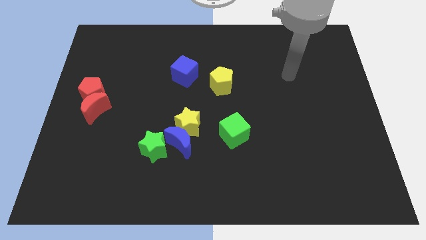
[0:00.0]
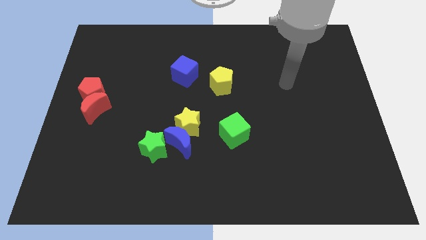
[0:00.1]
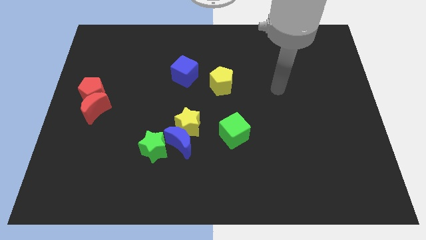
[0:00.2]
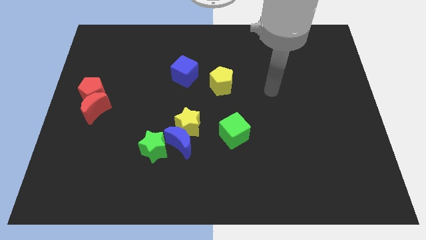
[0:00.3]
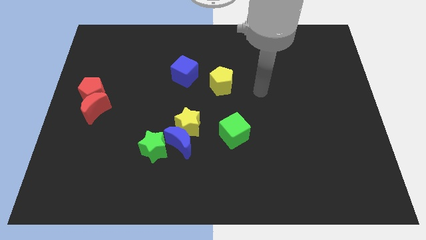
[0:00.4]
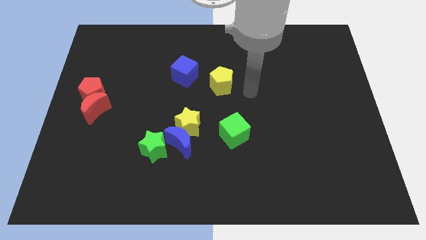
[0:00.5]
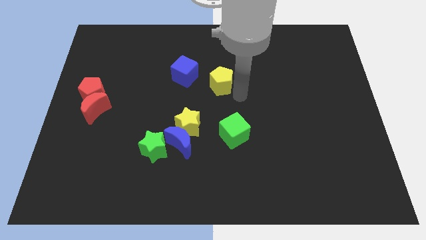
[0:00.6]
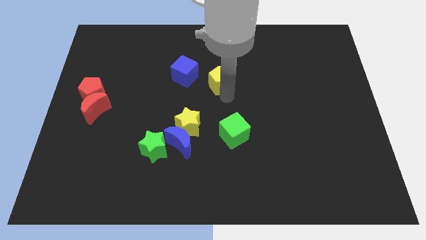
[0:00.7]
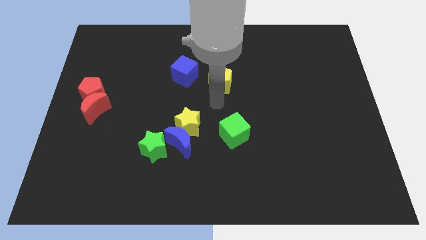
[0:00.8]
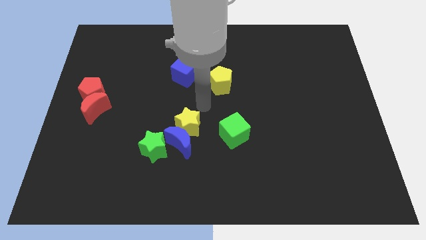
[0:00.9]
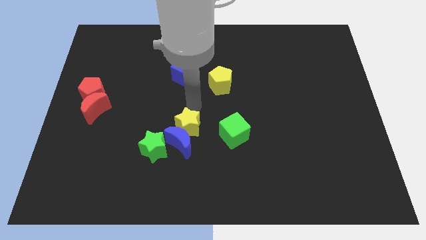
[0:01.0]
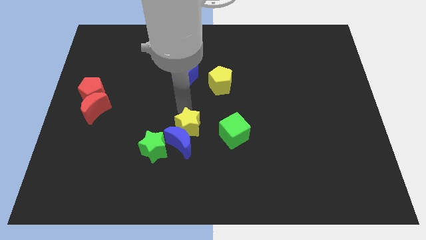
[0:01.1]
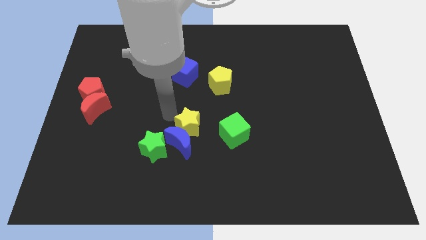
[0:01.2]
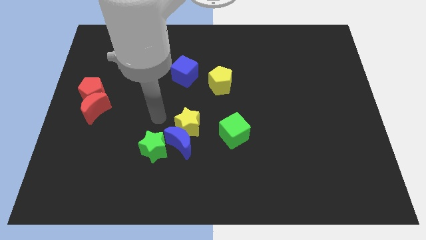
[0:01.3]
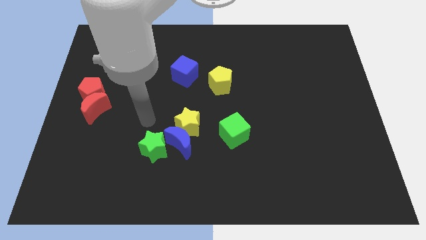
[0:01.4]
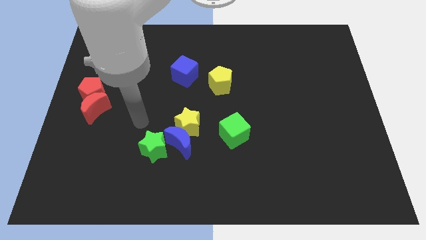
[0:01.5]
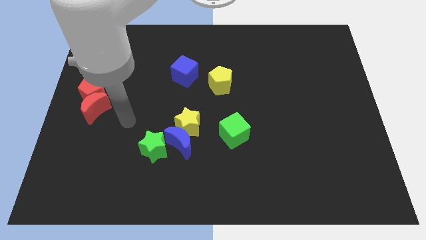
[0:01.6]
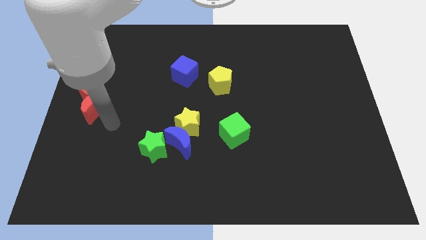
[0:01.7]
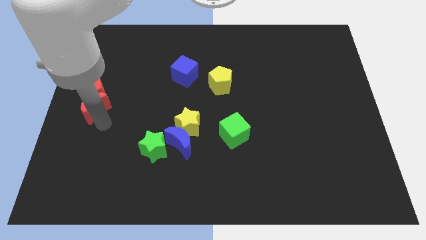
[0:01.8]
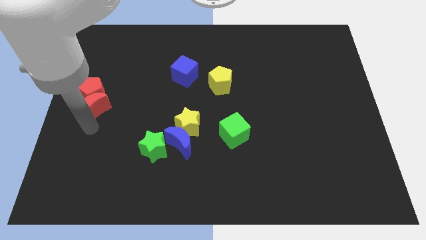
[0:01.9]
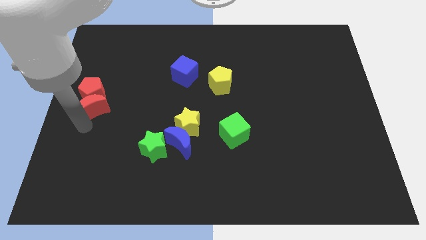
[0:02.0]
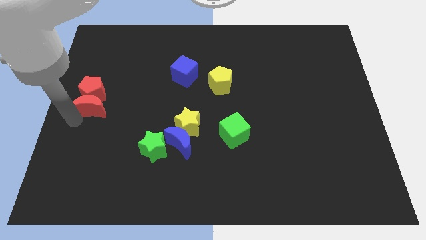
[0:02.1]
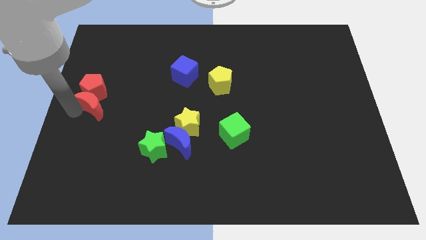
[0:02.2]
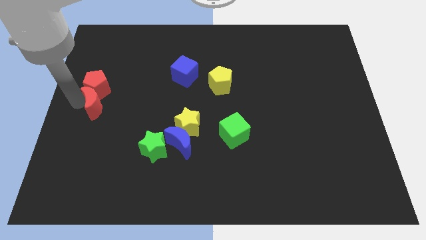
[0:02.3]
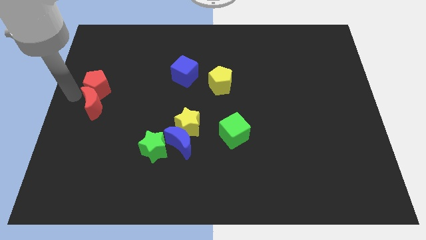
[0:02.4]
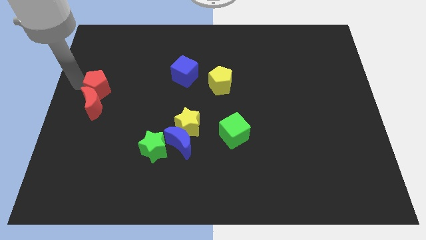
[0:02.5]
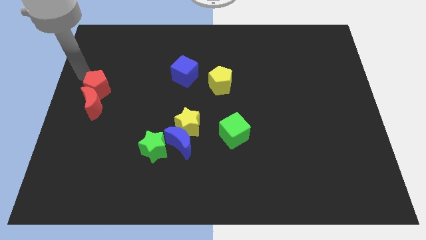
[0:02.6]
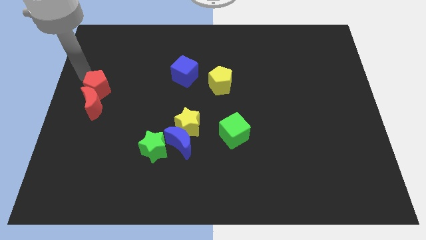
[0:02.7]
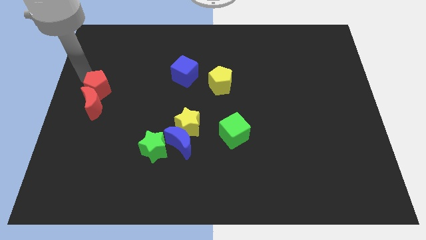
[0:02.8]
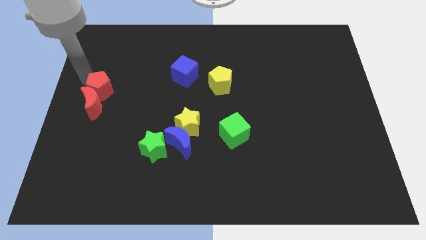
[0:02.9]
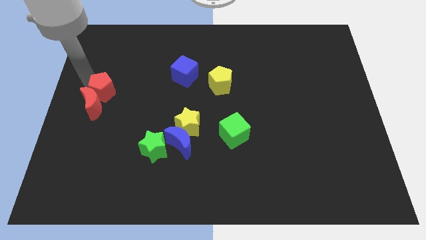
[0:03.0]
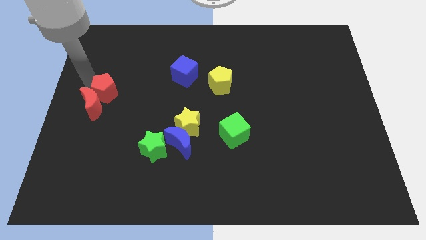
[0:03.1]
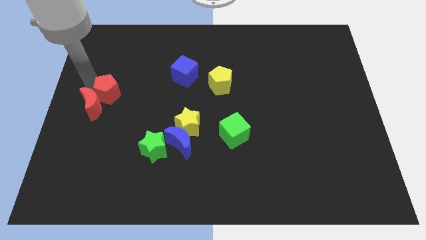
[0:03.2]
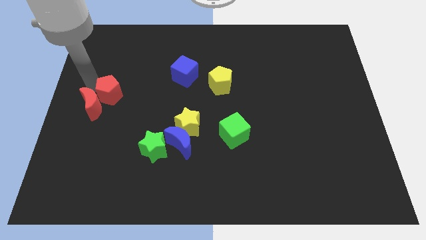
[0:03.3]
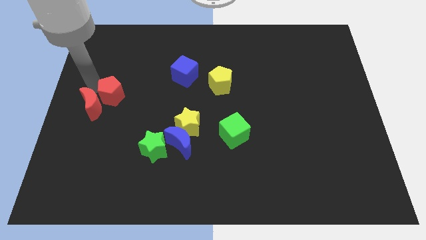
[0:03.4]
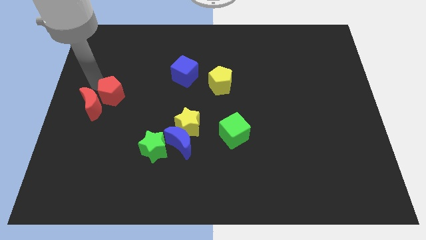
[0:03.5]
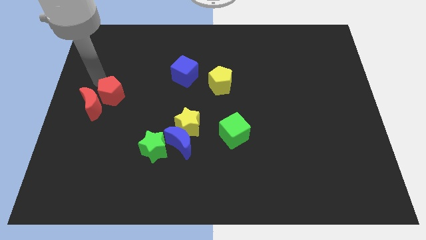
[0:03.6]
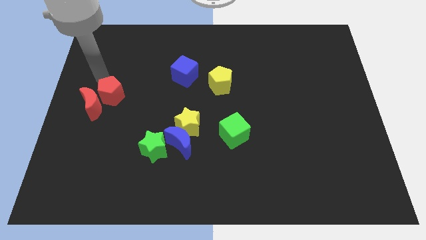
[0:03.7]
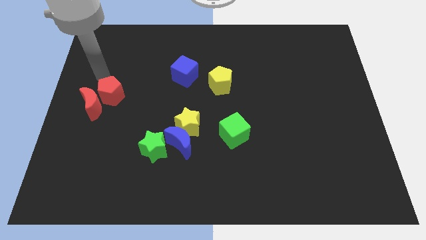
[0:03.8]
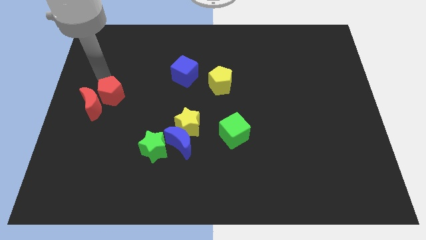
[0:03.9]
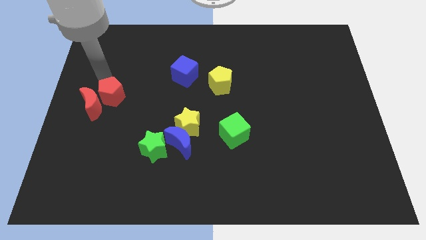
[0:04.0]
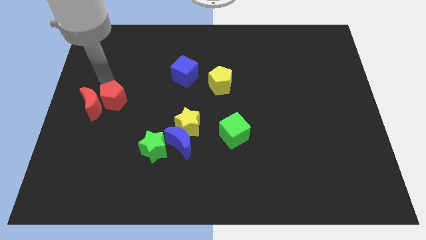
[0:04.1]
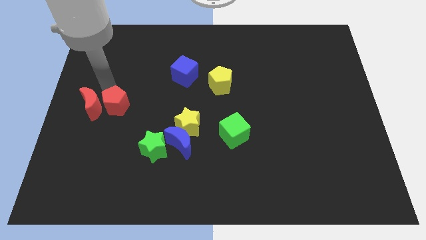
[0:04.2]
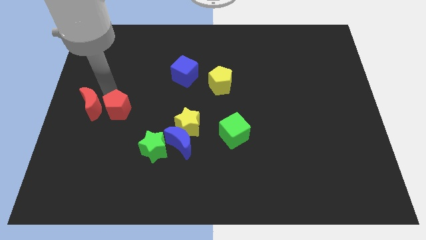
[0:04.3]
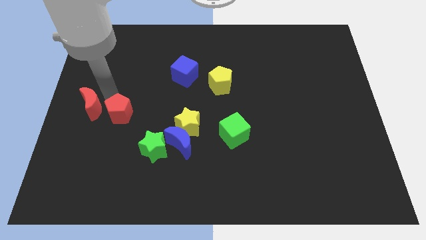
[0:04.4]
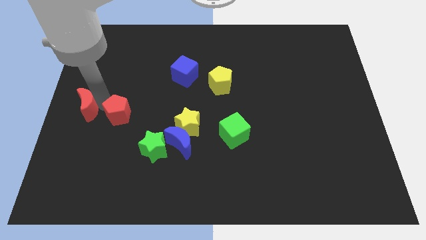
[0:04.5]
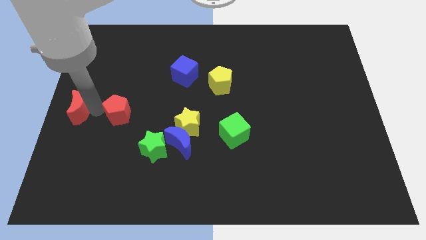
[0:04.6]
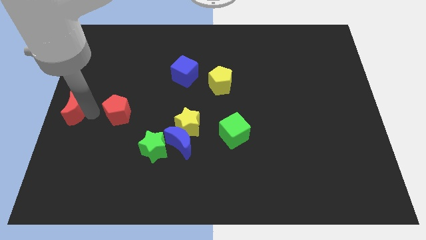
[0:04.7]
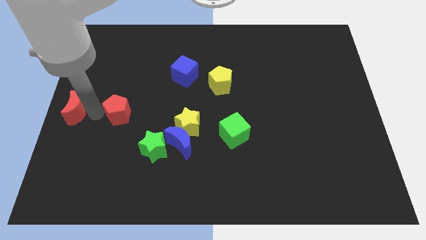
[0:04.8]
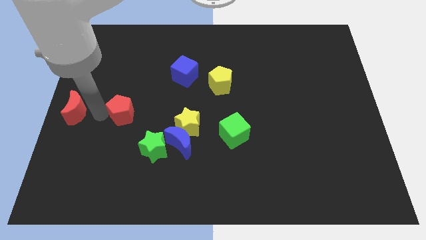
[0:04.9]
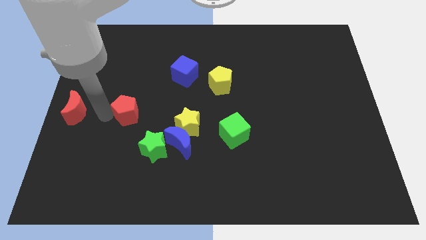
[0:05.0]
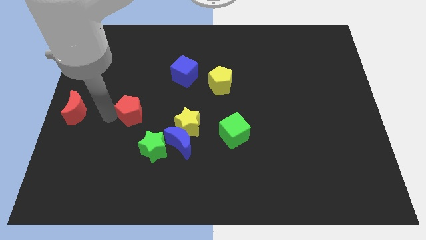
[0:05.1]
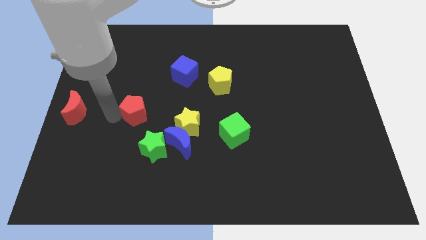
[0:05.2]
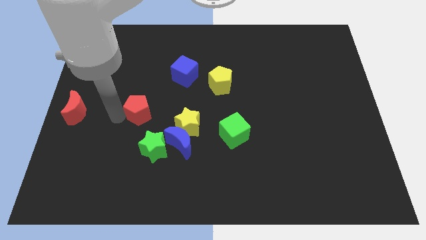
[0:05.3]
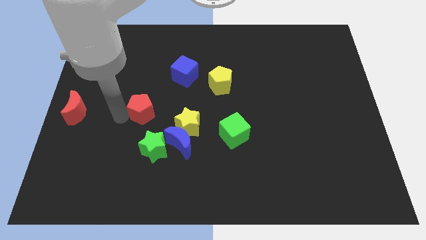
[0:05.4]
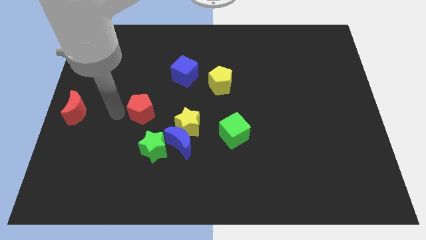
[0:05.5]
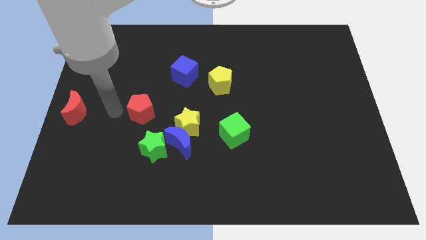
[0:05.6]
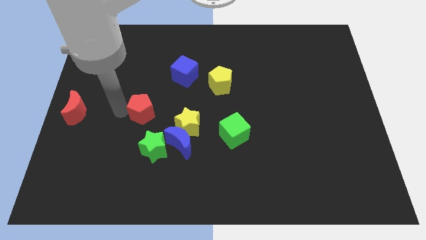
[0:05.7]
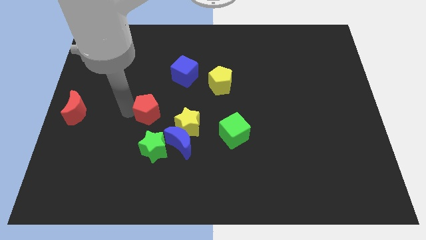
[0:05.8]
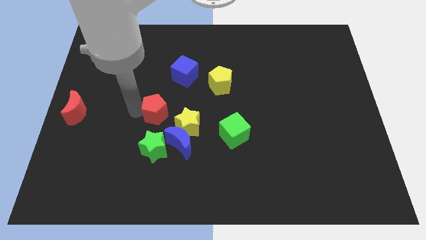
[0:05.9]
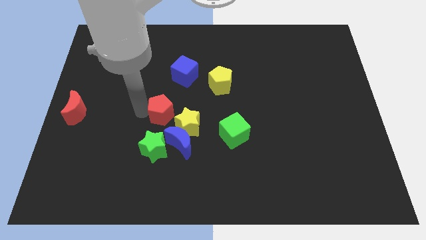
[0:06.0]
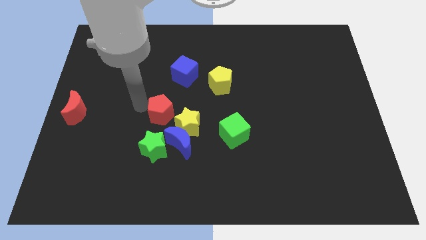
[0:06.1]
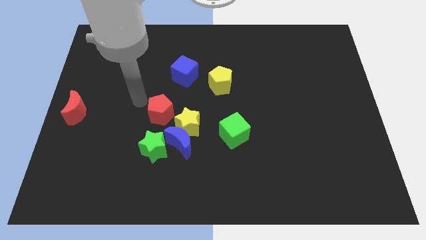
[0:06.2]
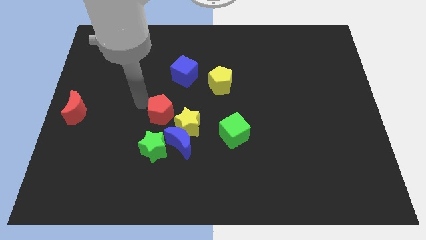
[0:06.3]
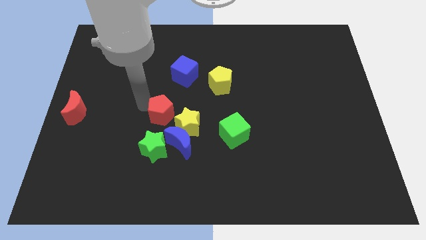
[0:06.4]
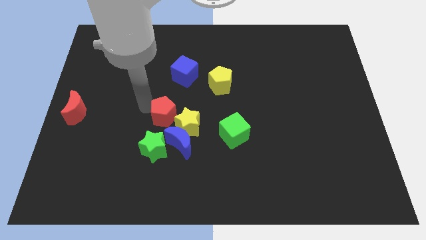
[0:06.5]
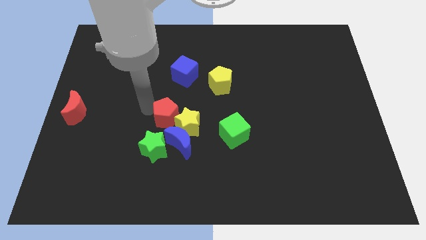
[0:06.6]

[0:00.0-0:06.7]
slide the red pentagon next to the yellow star

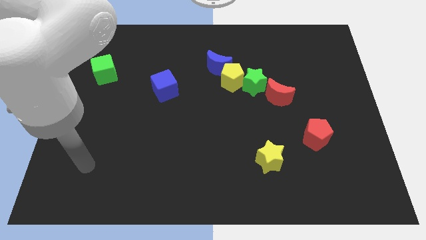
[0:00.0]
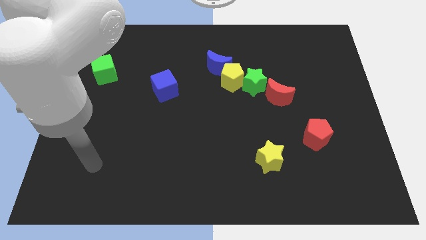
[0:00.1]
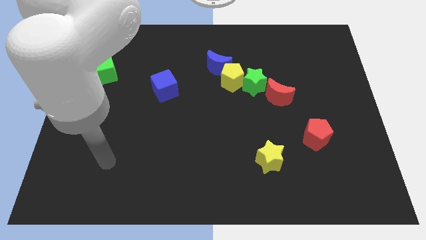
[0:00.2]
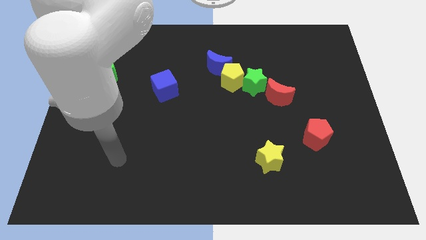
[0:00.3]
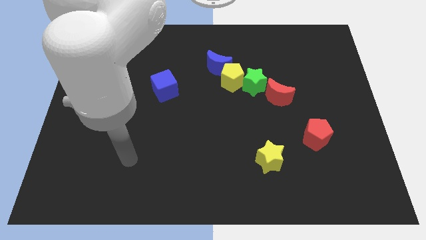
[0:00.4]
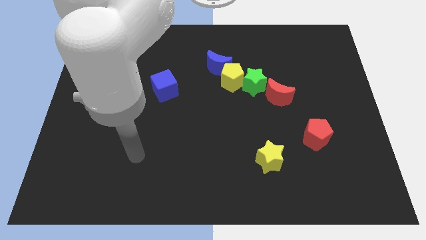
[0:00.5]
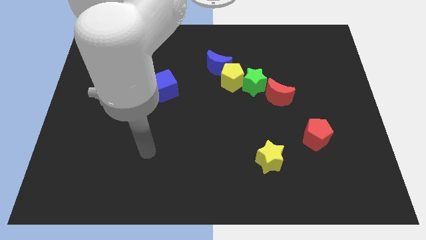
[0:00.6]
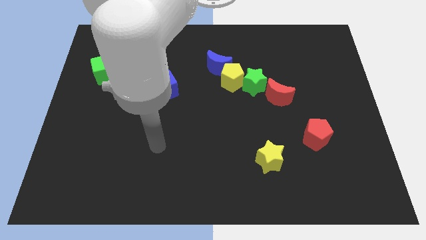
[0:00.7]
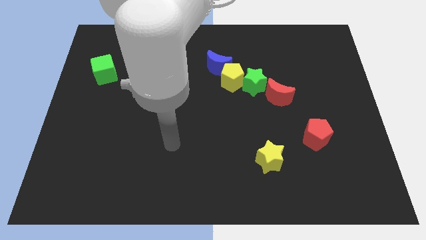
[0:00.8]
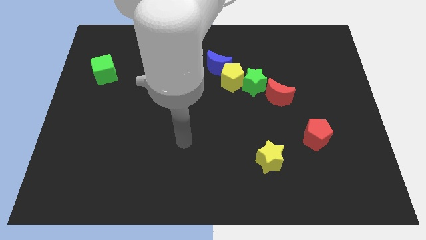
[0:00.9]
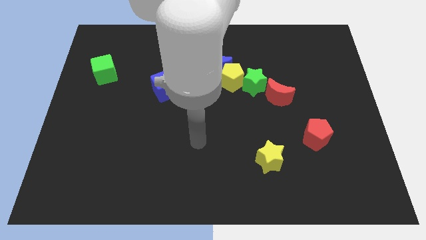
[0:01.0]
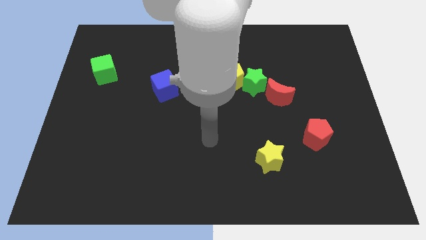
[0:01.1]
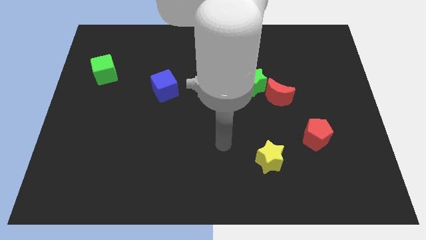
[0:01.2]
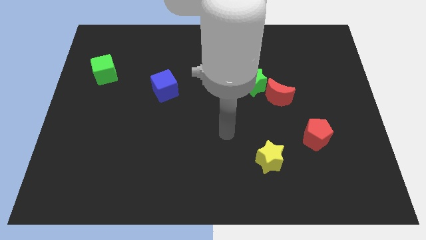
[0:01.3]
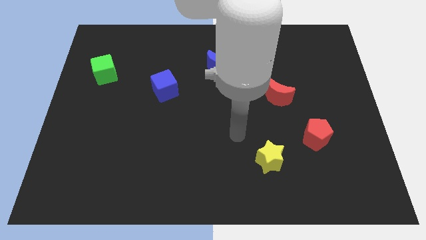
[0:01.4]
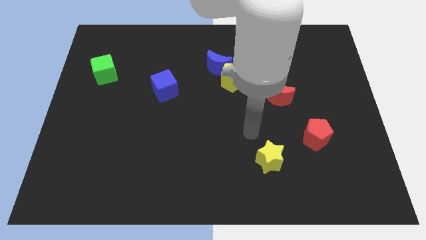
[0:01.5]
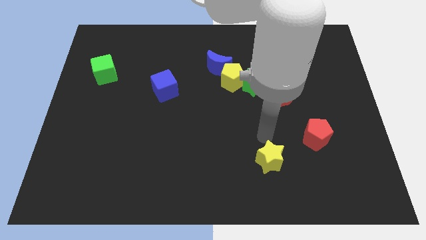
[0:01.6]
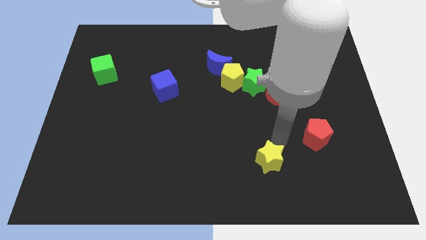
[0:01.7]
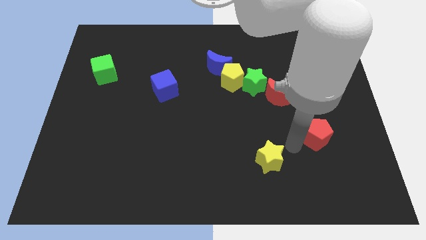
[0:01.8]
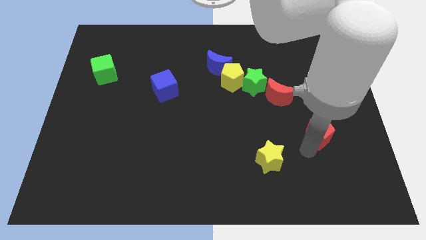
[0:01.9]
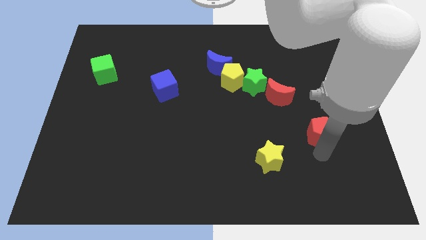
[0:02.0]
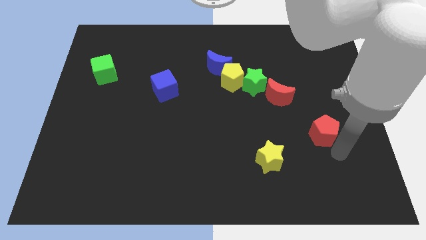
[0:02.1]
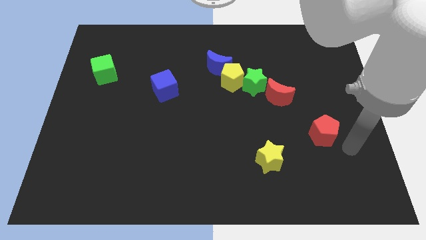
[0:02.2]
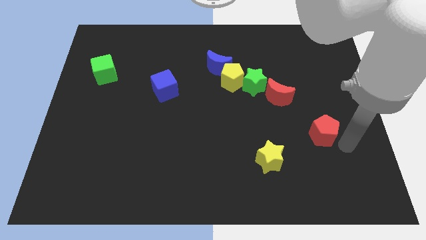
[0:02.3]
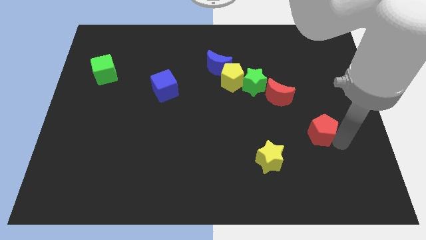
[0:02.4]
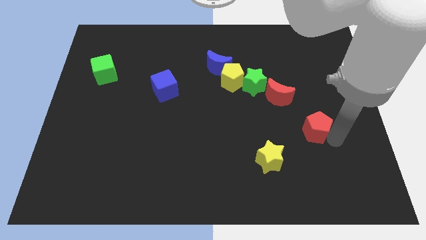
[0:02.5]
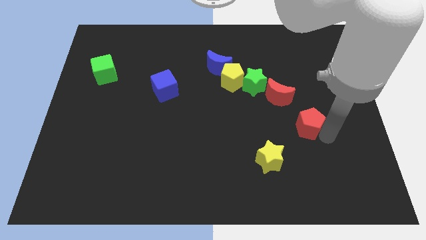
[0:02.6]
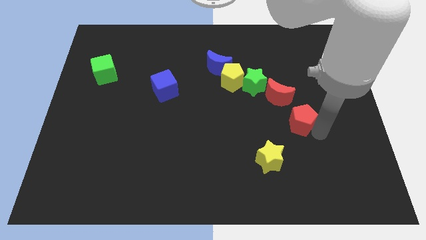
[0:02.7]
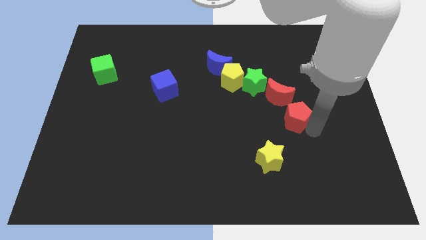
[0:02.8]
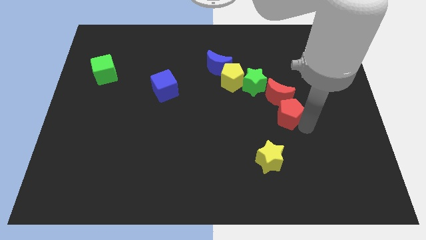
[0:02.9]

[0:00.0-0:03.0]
move the red pentagon next to the red moon
